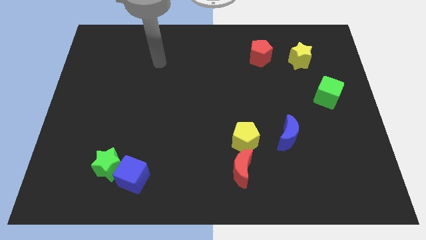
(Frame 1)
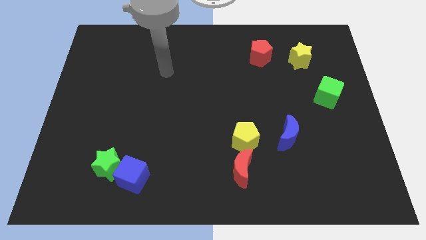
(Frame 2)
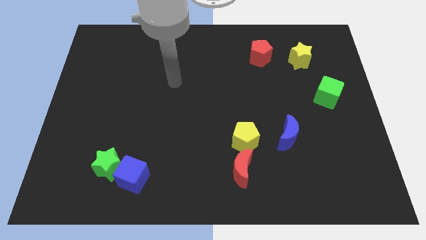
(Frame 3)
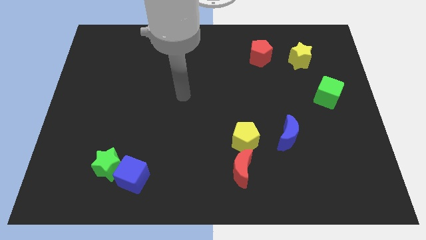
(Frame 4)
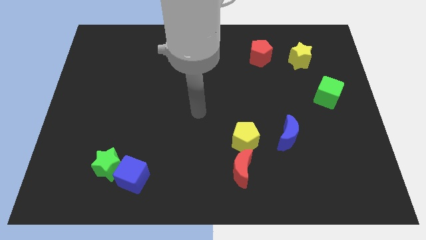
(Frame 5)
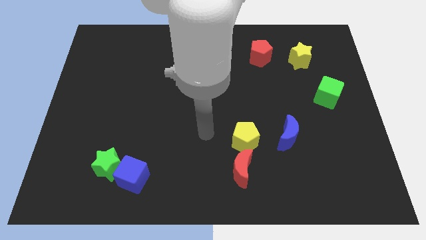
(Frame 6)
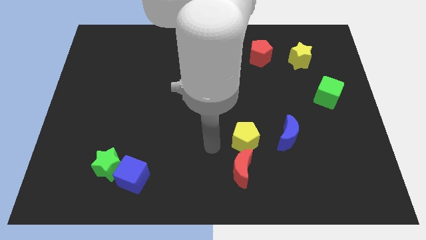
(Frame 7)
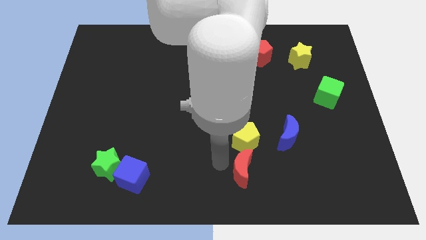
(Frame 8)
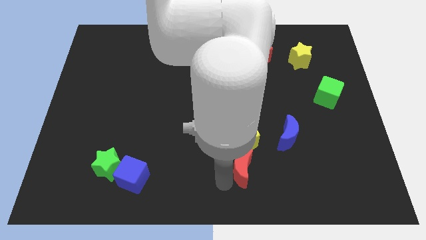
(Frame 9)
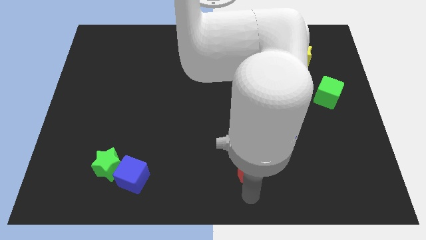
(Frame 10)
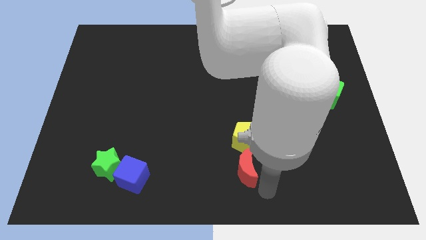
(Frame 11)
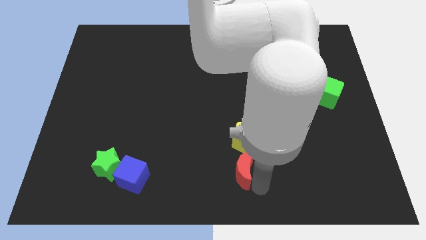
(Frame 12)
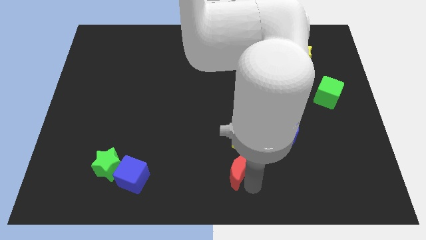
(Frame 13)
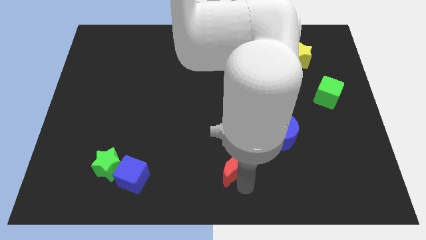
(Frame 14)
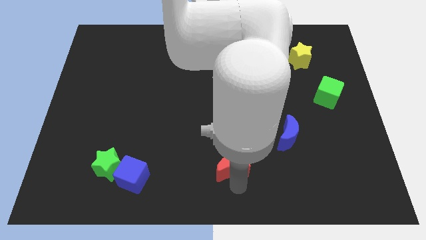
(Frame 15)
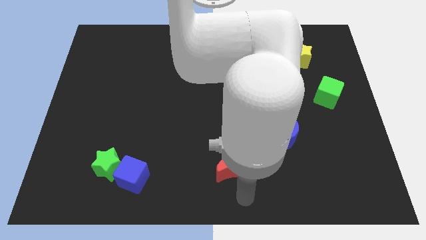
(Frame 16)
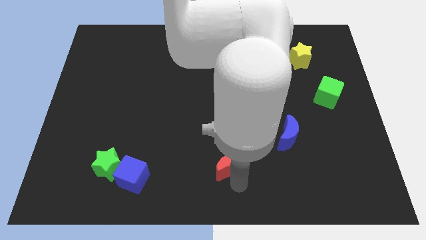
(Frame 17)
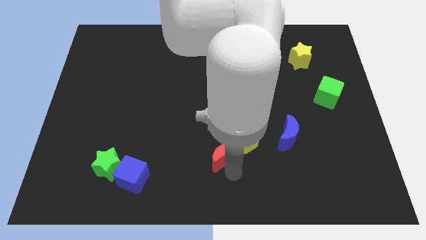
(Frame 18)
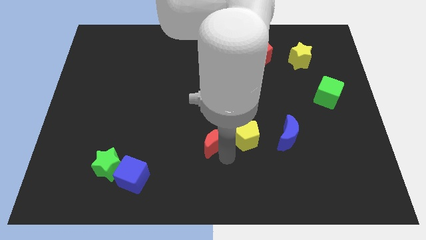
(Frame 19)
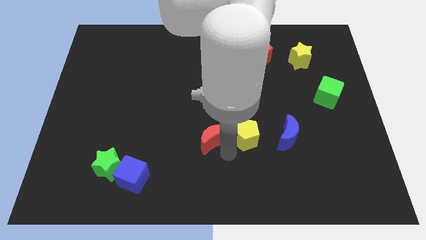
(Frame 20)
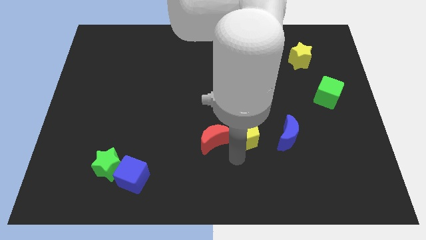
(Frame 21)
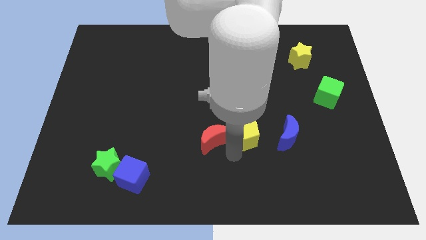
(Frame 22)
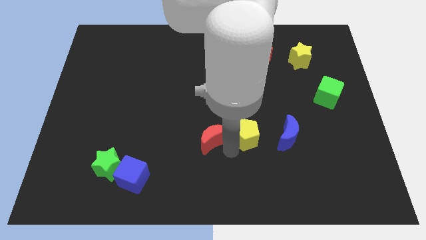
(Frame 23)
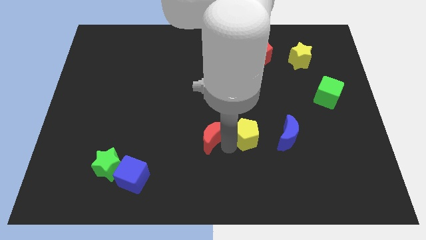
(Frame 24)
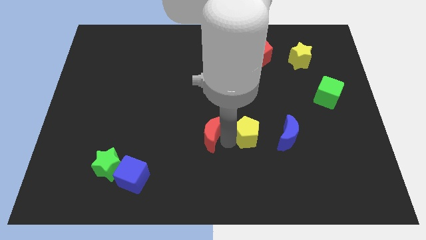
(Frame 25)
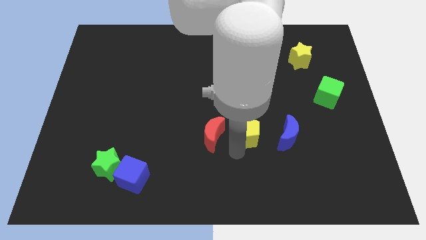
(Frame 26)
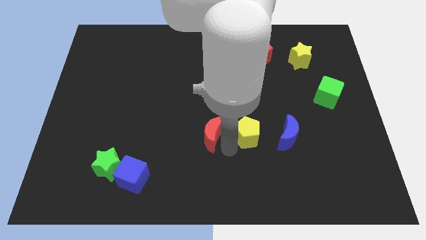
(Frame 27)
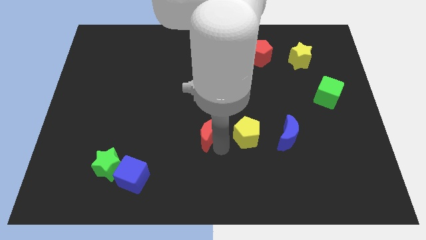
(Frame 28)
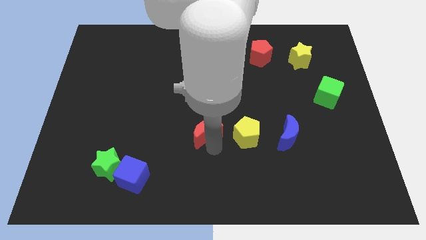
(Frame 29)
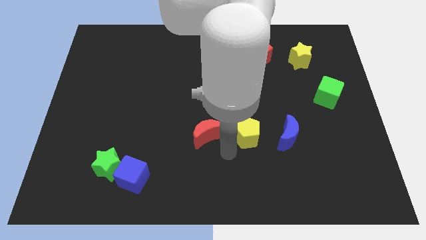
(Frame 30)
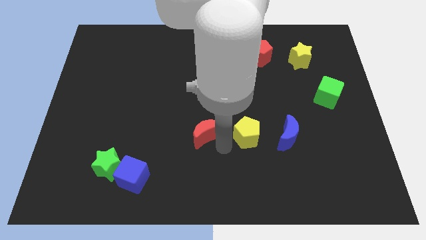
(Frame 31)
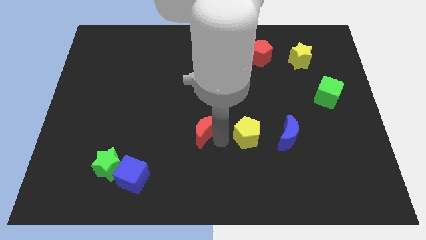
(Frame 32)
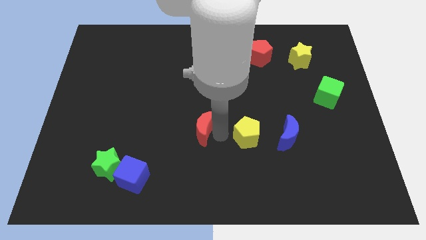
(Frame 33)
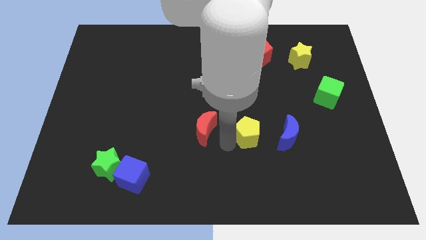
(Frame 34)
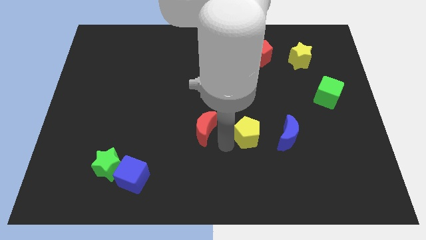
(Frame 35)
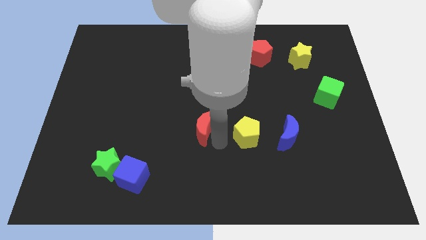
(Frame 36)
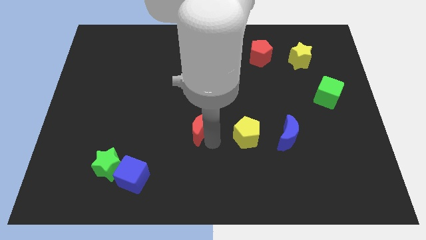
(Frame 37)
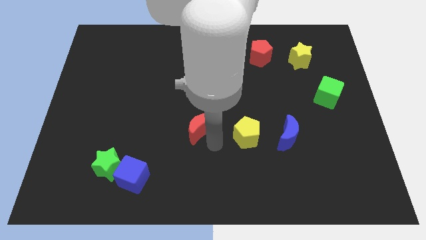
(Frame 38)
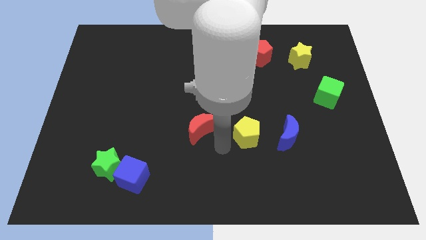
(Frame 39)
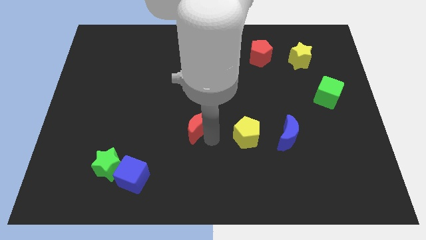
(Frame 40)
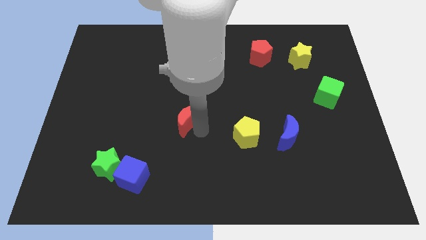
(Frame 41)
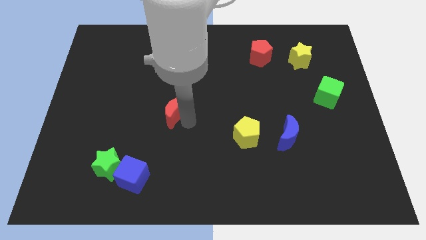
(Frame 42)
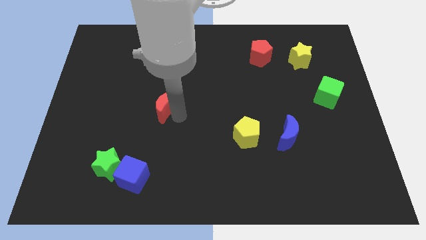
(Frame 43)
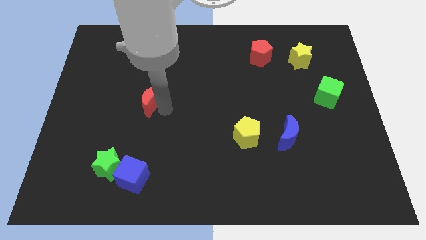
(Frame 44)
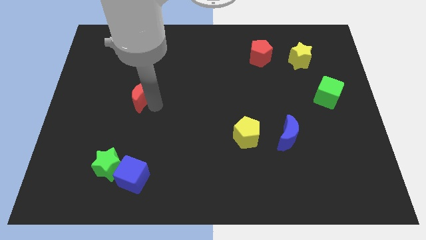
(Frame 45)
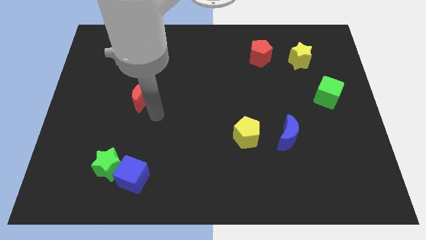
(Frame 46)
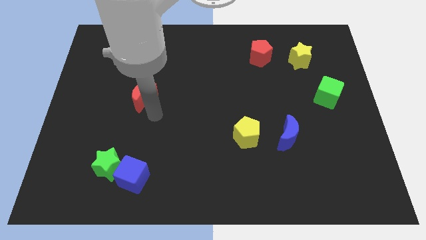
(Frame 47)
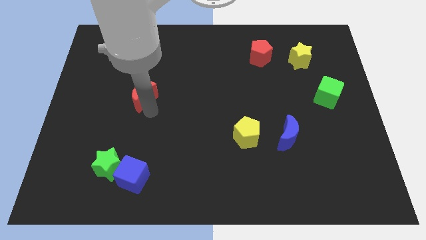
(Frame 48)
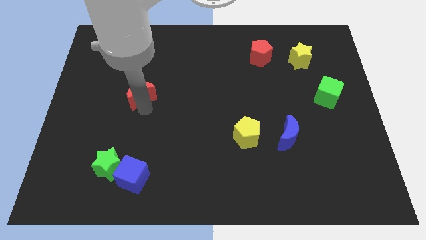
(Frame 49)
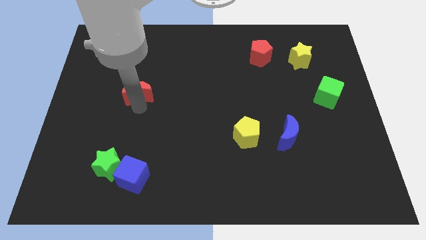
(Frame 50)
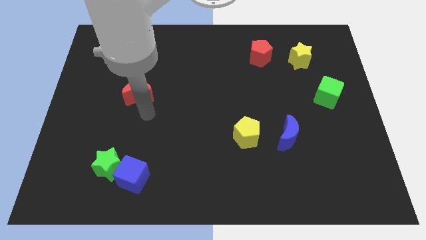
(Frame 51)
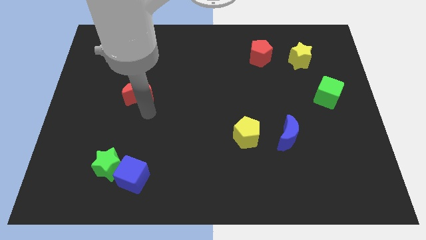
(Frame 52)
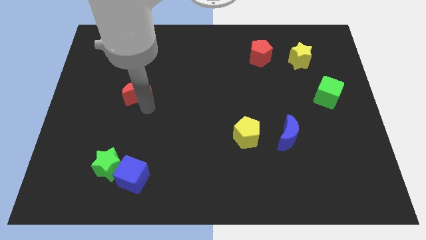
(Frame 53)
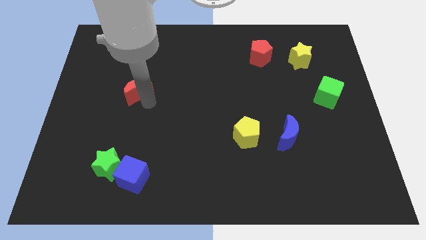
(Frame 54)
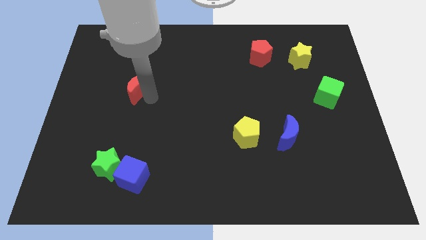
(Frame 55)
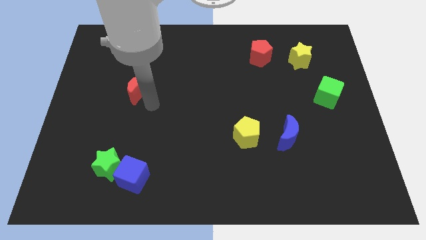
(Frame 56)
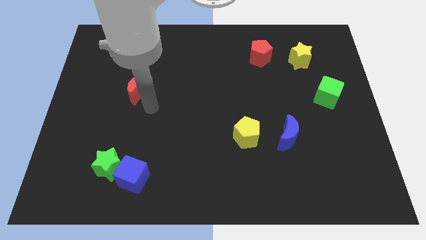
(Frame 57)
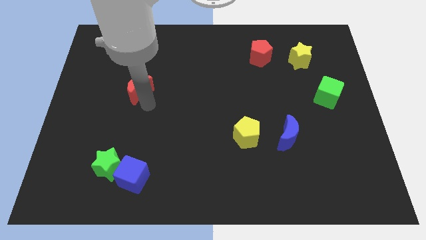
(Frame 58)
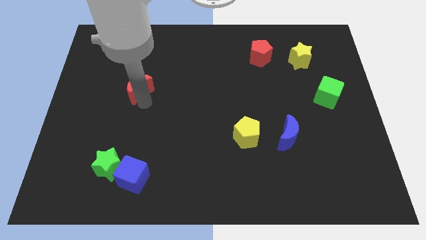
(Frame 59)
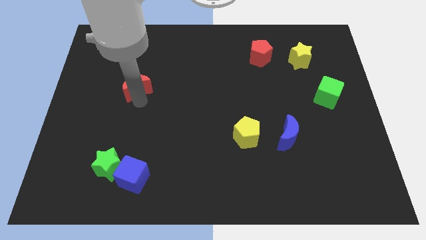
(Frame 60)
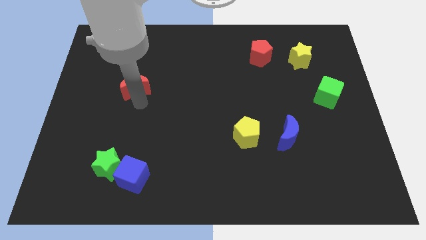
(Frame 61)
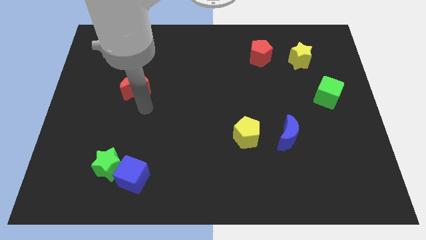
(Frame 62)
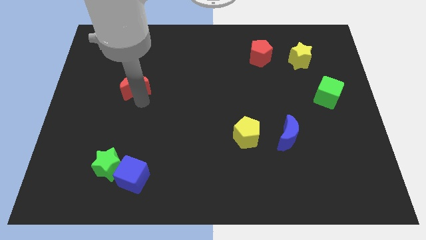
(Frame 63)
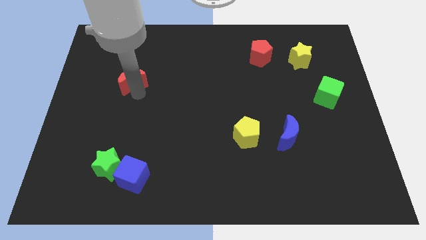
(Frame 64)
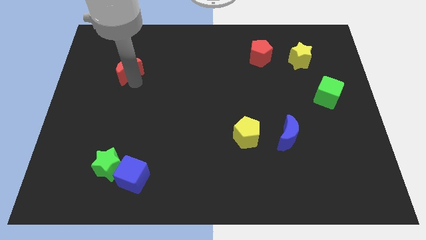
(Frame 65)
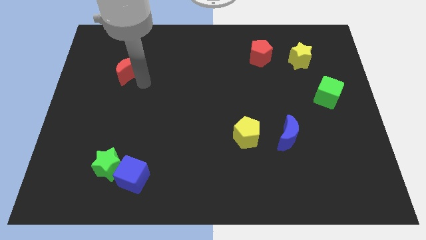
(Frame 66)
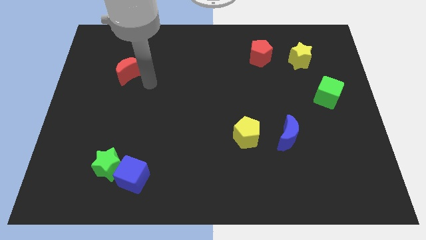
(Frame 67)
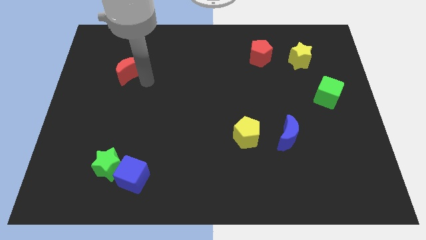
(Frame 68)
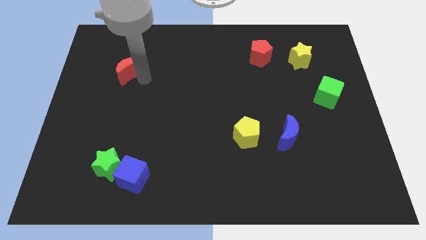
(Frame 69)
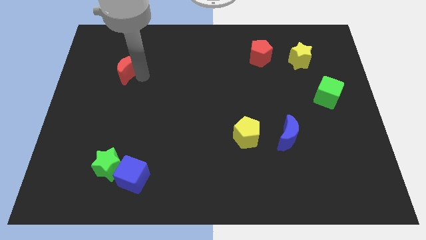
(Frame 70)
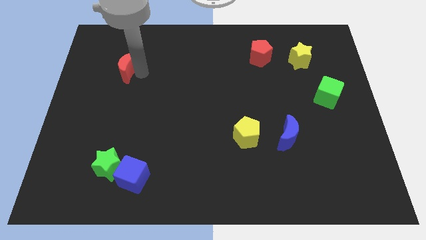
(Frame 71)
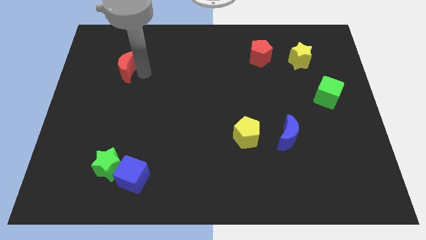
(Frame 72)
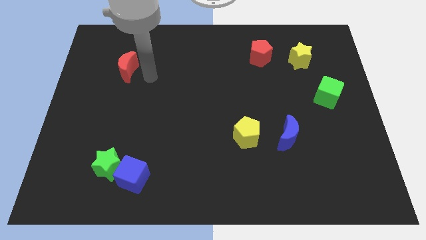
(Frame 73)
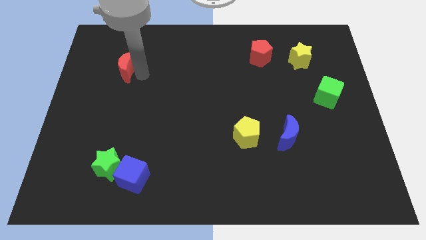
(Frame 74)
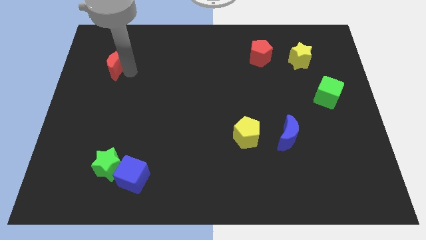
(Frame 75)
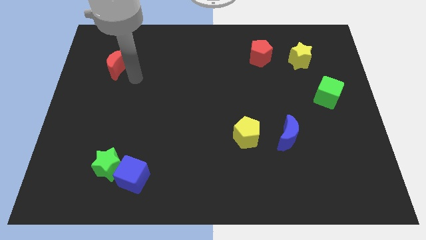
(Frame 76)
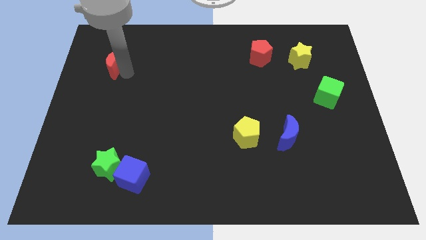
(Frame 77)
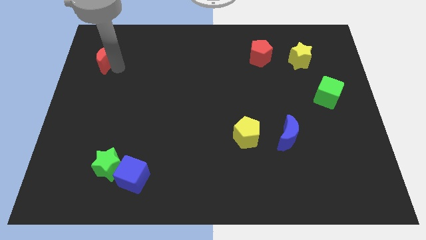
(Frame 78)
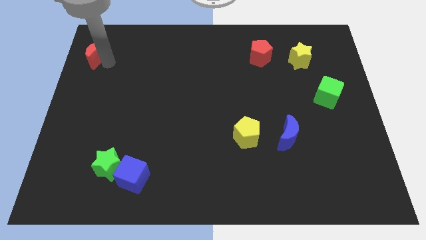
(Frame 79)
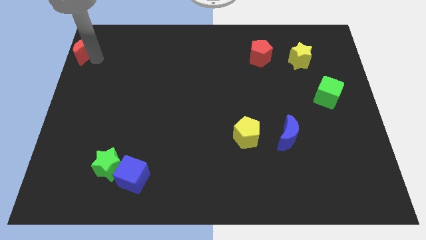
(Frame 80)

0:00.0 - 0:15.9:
slide the red moon to the top left of the board
